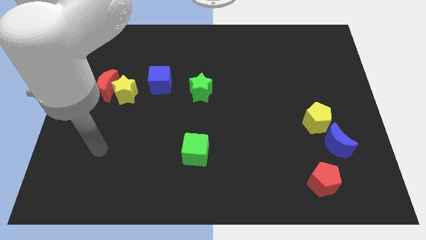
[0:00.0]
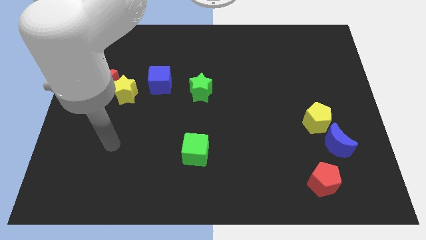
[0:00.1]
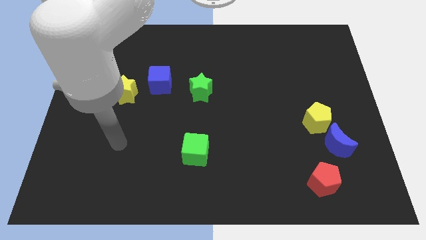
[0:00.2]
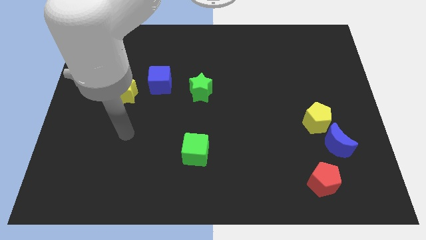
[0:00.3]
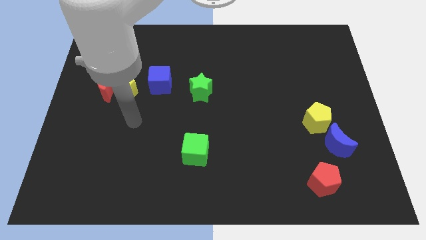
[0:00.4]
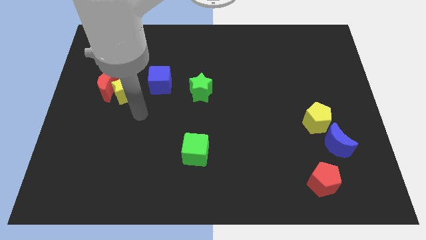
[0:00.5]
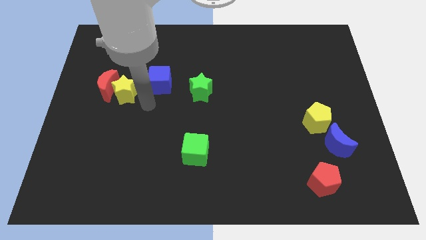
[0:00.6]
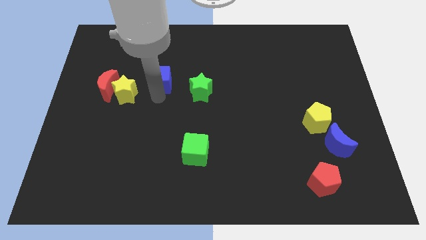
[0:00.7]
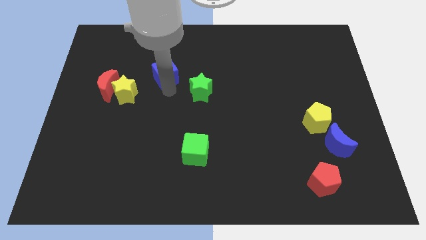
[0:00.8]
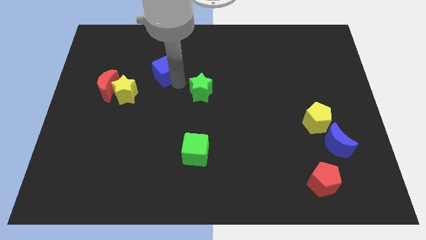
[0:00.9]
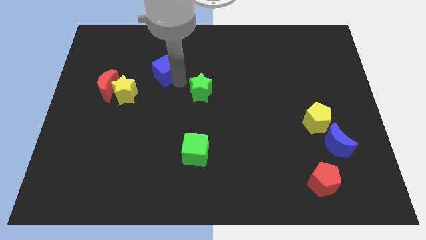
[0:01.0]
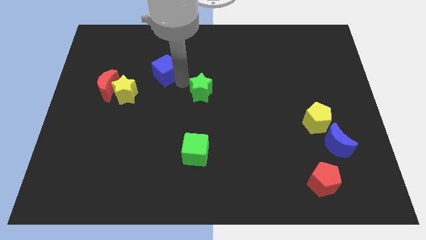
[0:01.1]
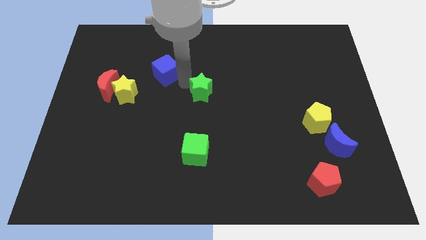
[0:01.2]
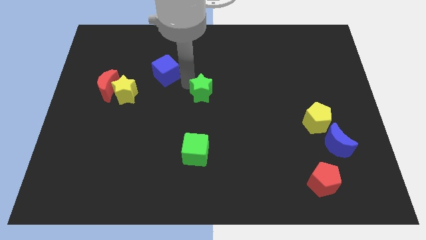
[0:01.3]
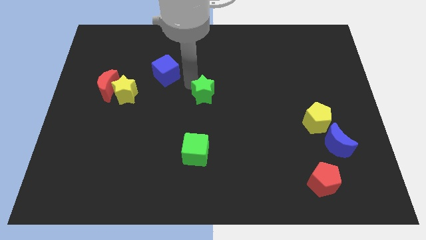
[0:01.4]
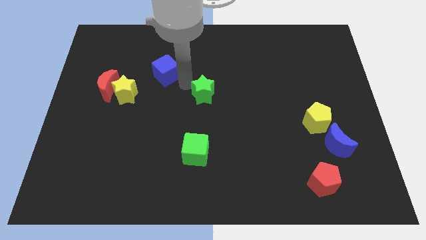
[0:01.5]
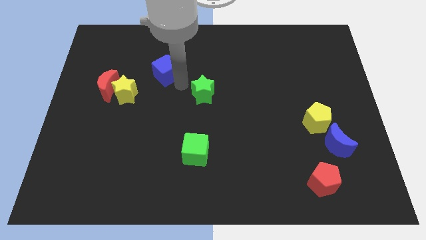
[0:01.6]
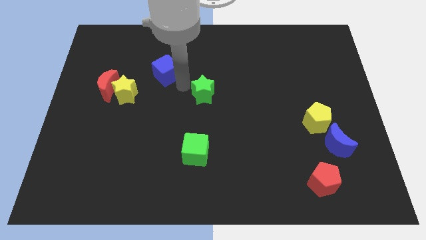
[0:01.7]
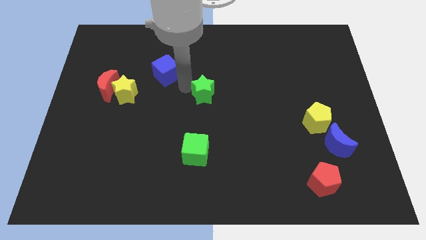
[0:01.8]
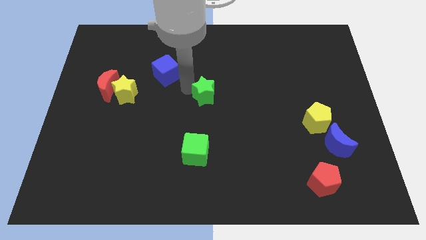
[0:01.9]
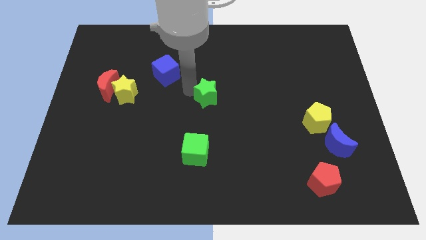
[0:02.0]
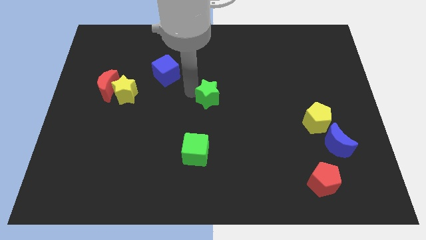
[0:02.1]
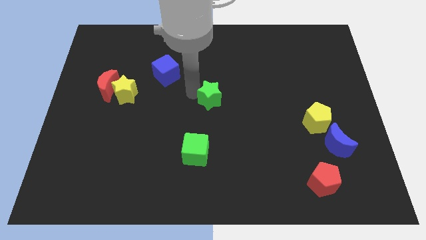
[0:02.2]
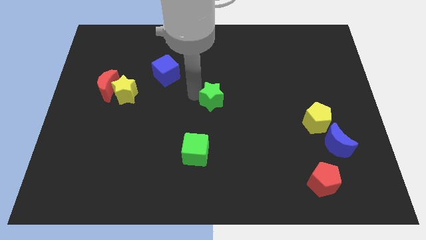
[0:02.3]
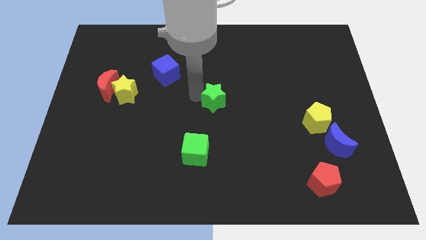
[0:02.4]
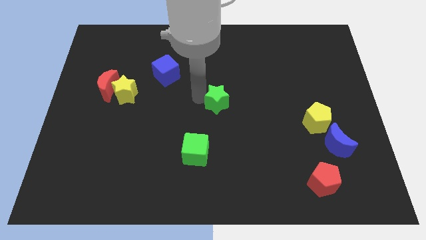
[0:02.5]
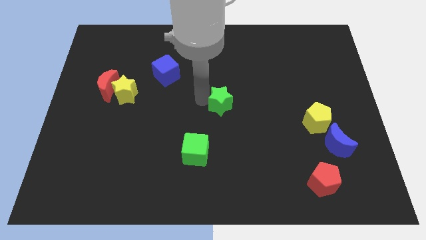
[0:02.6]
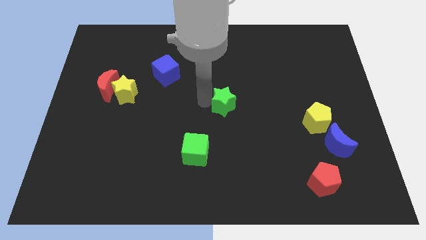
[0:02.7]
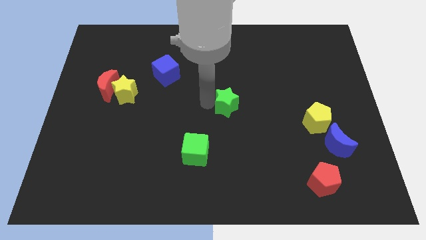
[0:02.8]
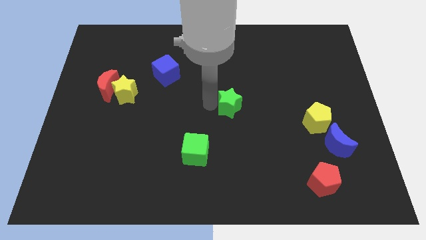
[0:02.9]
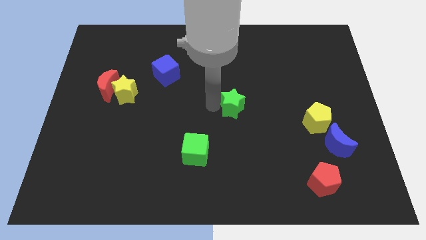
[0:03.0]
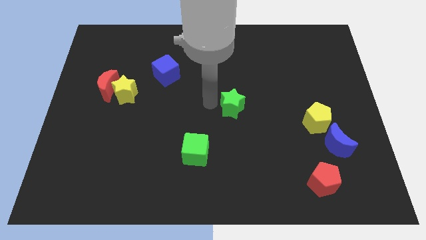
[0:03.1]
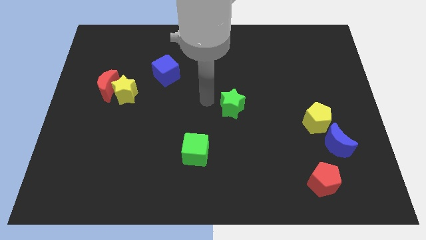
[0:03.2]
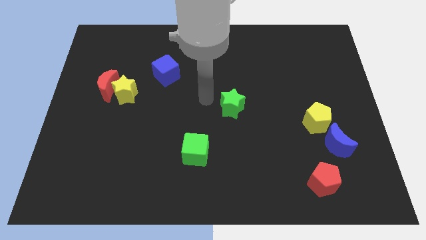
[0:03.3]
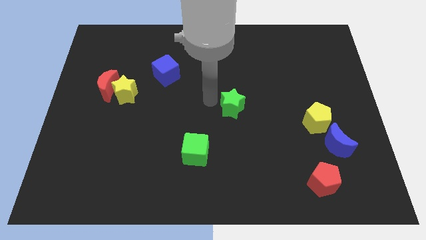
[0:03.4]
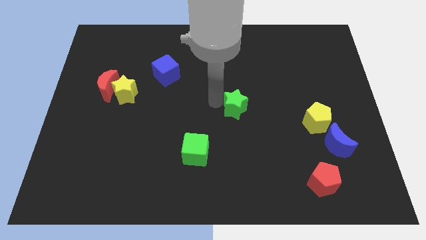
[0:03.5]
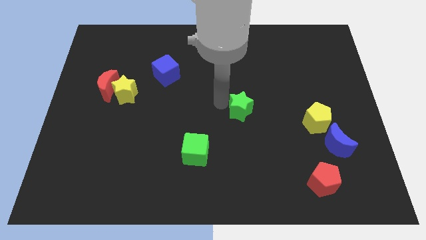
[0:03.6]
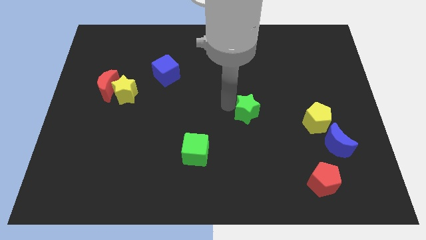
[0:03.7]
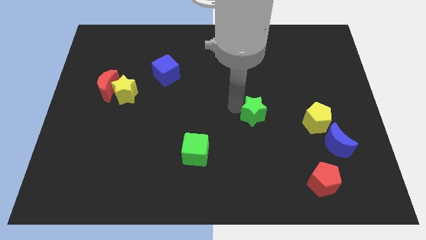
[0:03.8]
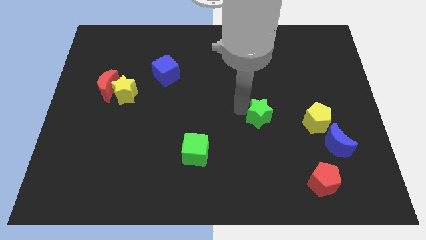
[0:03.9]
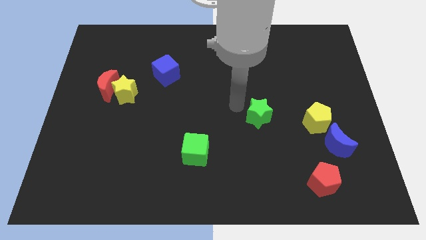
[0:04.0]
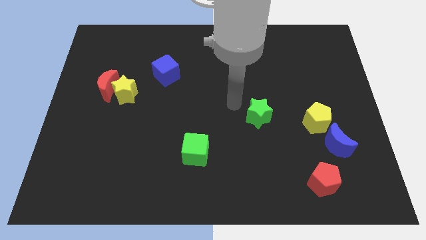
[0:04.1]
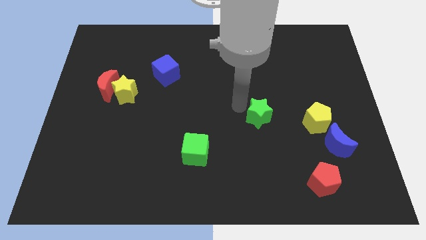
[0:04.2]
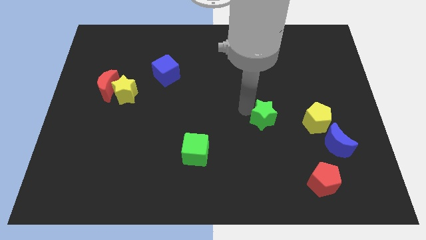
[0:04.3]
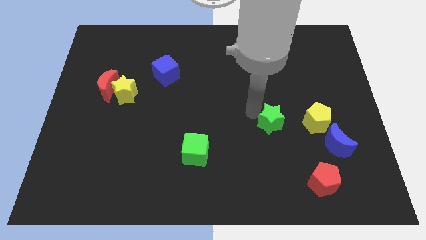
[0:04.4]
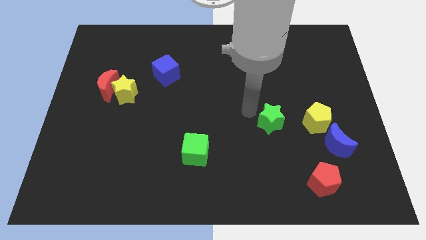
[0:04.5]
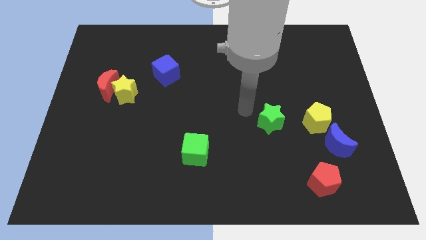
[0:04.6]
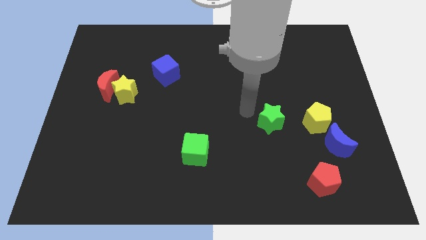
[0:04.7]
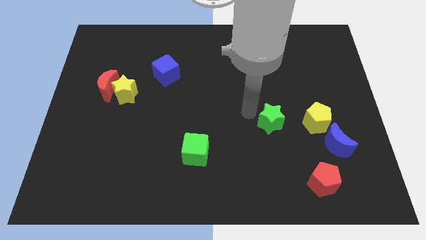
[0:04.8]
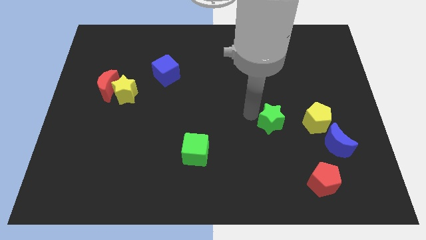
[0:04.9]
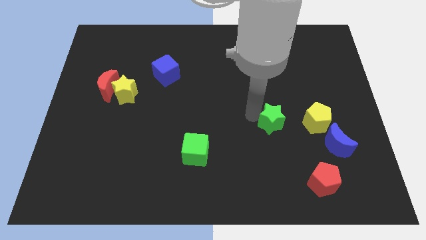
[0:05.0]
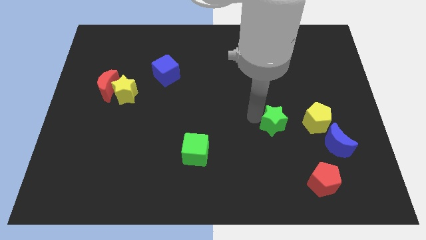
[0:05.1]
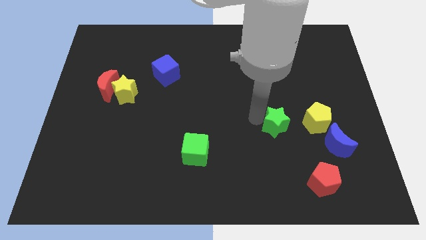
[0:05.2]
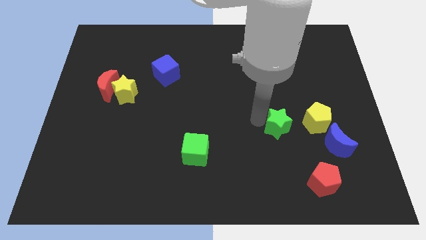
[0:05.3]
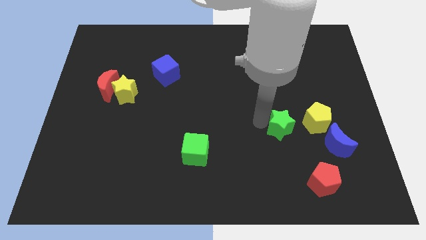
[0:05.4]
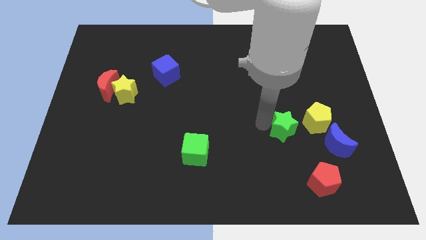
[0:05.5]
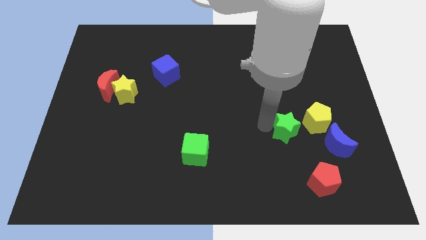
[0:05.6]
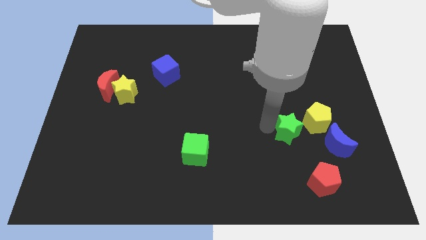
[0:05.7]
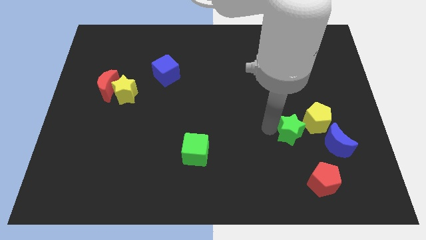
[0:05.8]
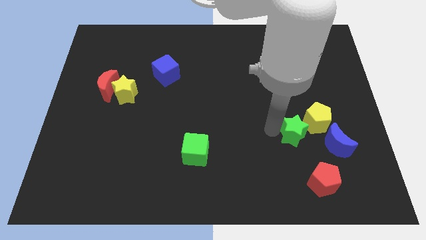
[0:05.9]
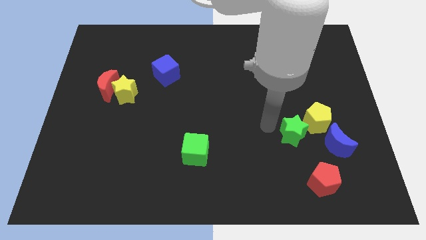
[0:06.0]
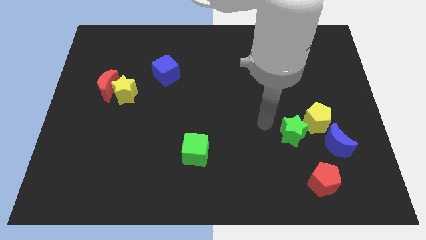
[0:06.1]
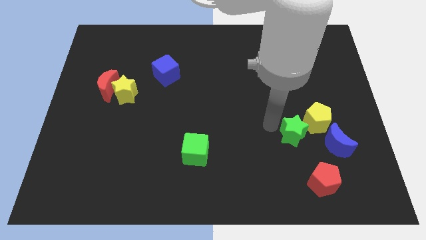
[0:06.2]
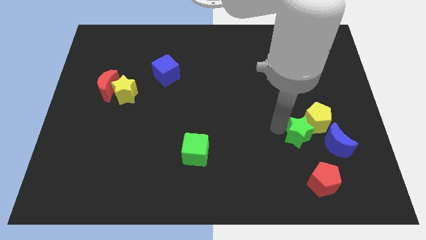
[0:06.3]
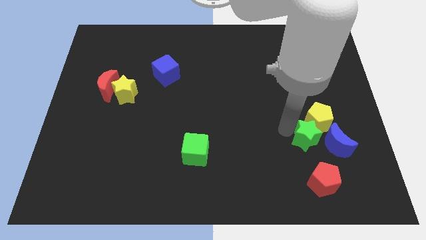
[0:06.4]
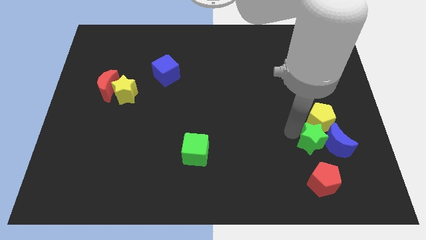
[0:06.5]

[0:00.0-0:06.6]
push the green star towards the blue moon

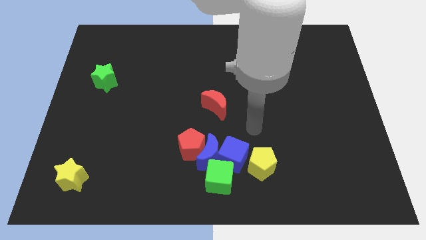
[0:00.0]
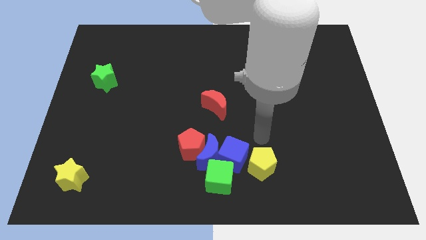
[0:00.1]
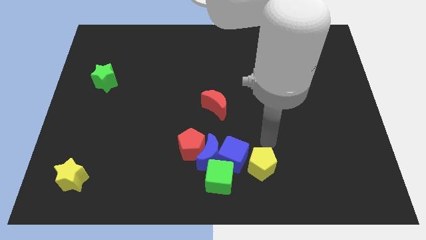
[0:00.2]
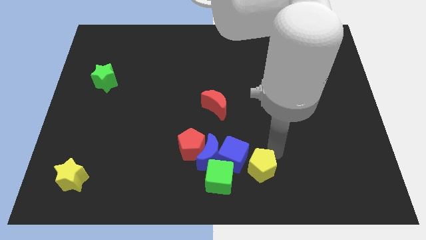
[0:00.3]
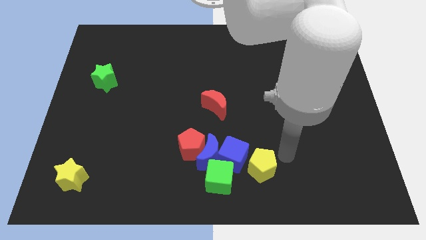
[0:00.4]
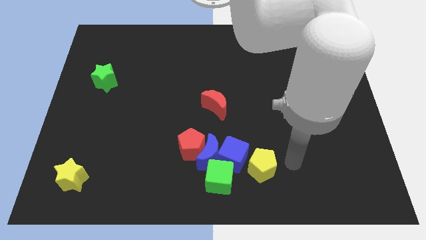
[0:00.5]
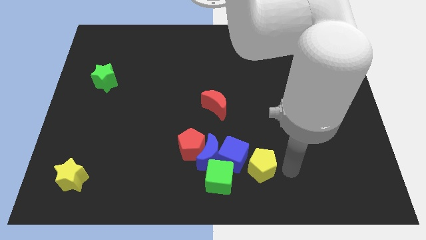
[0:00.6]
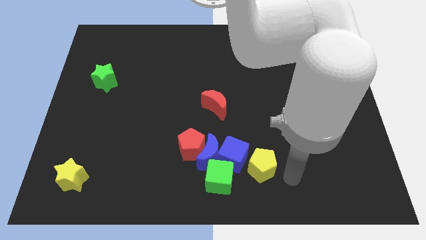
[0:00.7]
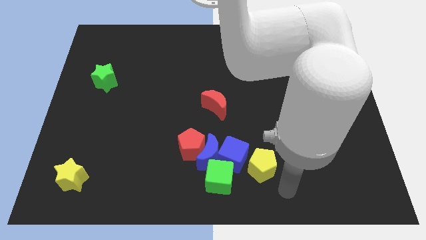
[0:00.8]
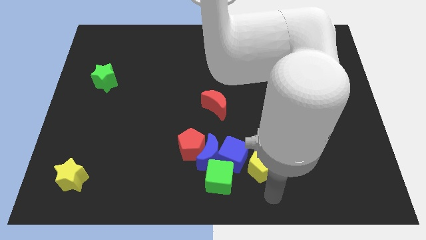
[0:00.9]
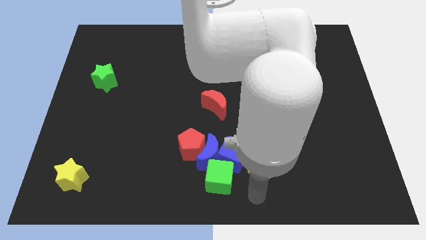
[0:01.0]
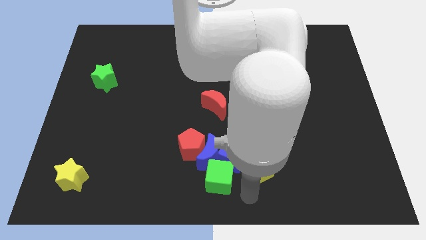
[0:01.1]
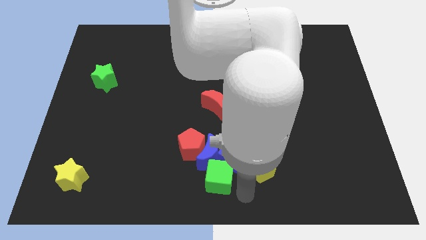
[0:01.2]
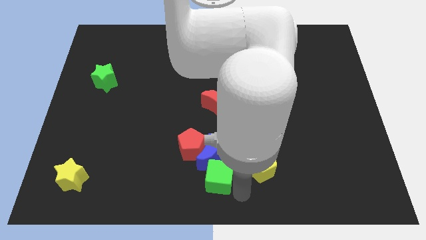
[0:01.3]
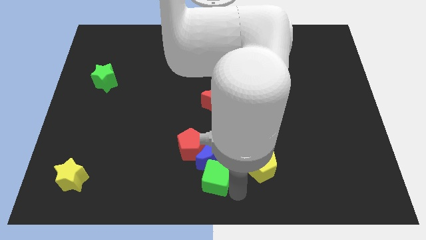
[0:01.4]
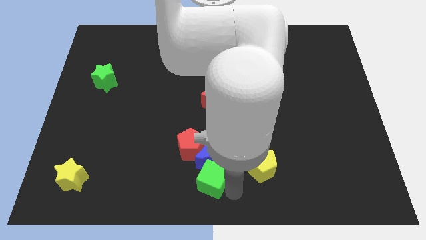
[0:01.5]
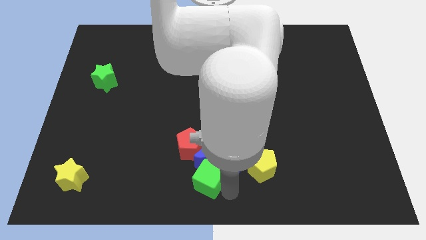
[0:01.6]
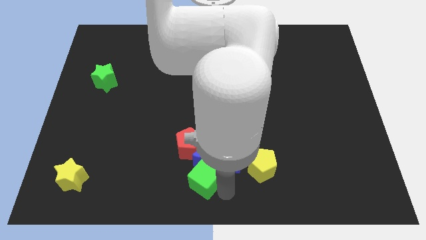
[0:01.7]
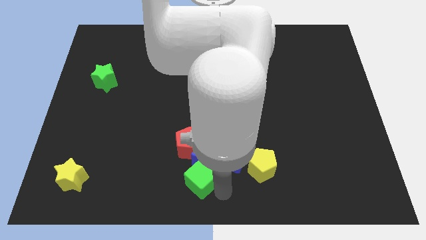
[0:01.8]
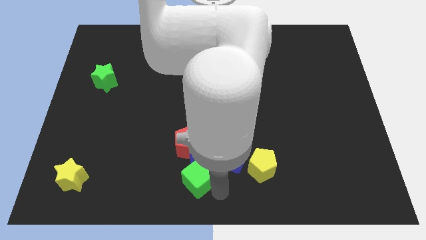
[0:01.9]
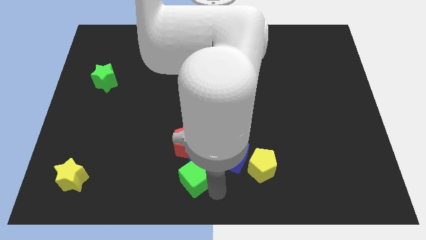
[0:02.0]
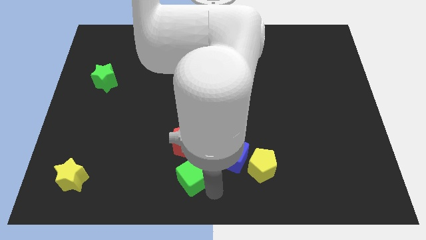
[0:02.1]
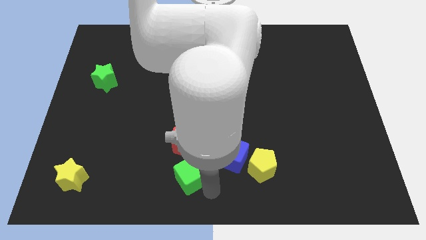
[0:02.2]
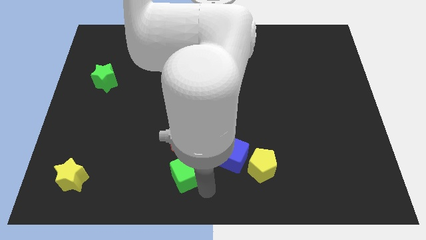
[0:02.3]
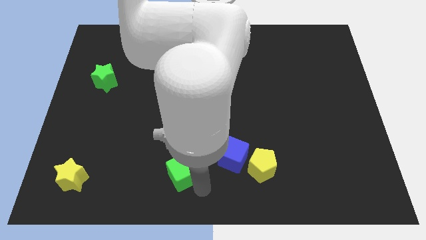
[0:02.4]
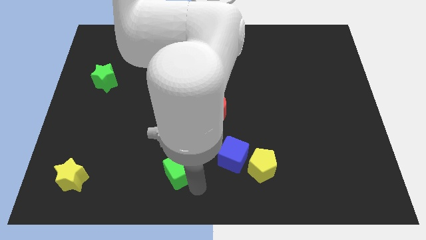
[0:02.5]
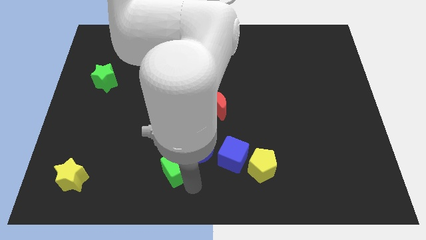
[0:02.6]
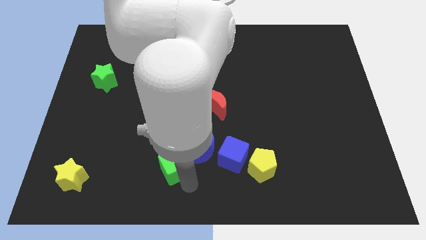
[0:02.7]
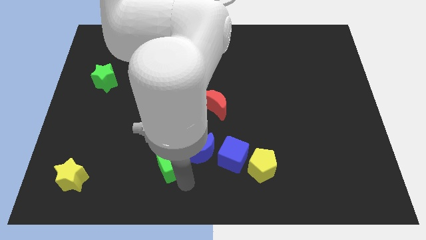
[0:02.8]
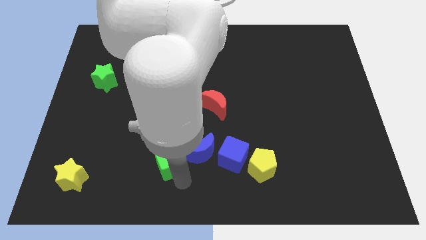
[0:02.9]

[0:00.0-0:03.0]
slide the green cube towards the red pentagon
